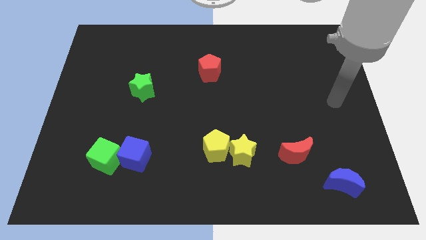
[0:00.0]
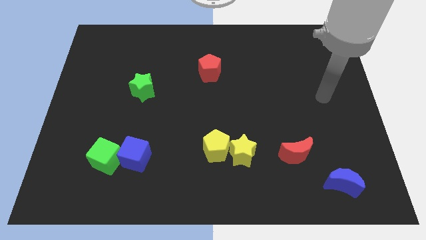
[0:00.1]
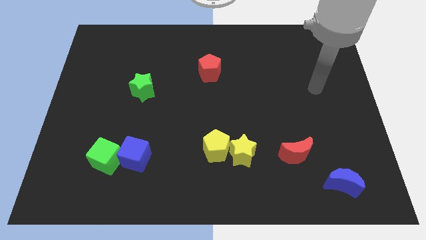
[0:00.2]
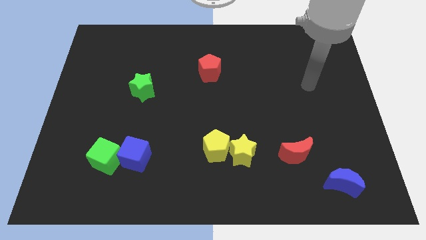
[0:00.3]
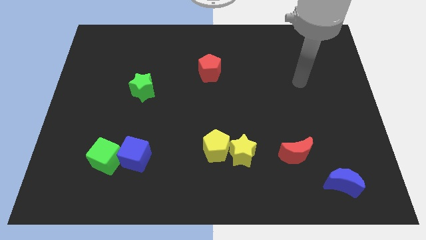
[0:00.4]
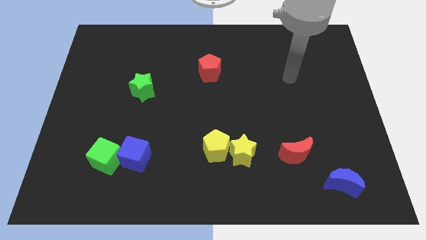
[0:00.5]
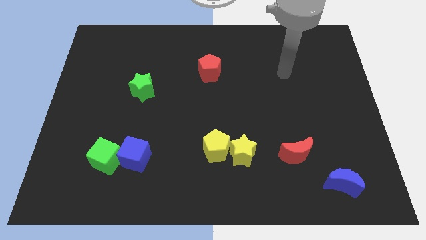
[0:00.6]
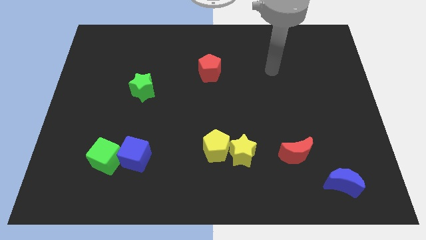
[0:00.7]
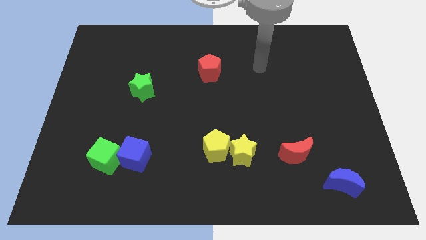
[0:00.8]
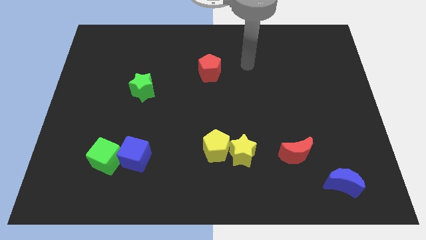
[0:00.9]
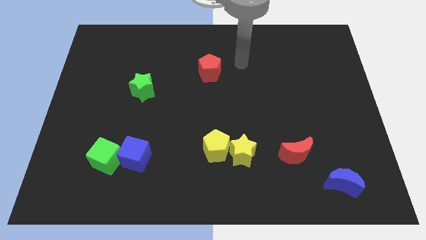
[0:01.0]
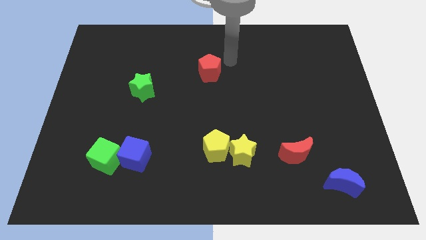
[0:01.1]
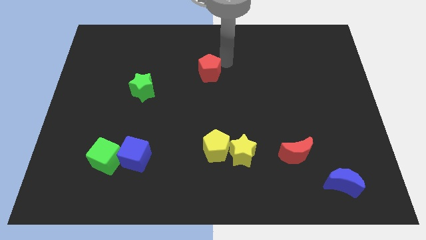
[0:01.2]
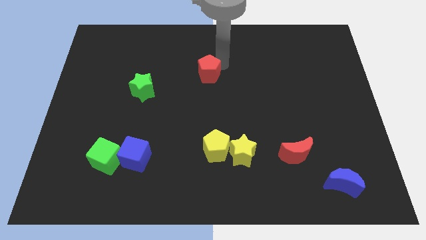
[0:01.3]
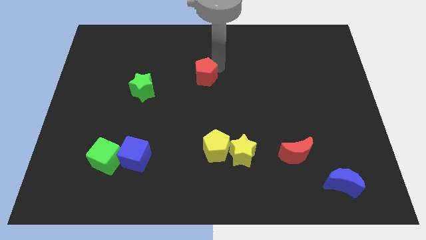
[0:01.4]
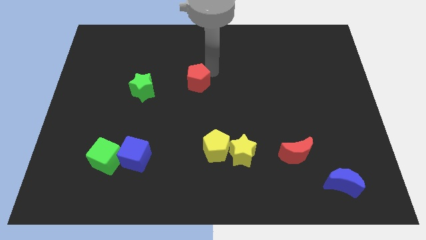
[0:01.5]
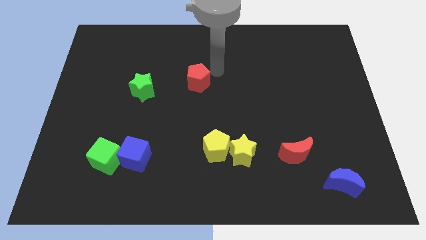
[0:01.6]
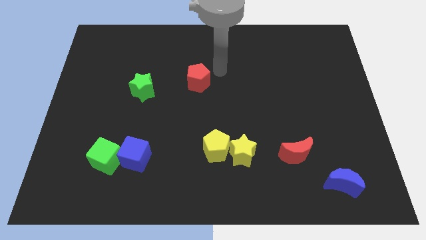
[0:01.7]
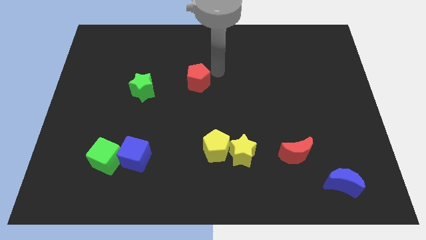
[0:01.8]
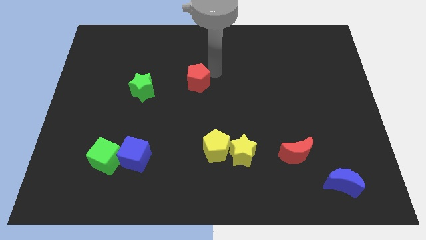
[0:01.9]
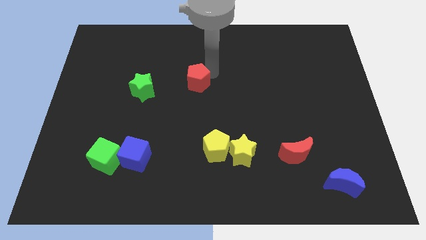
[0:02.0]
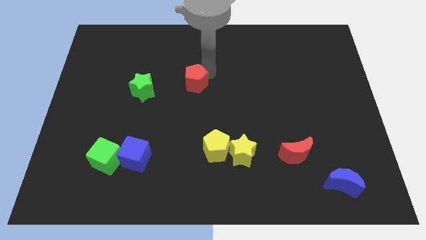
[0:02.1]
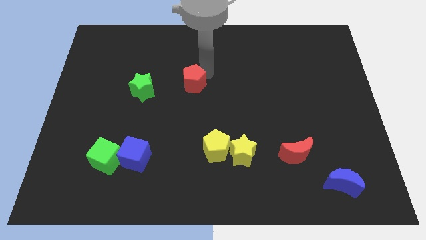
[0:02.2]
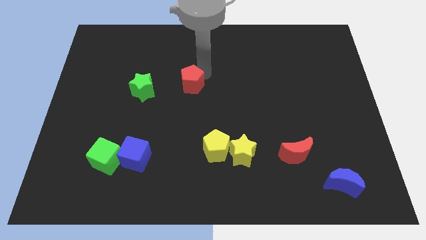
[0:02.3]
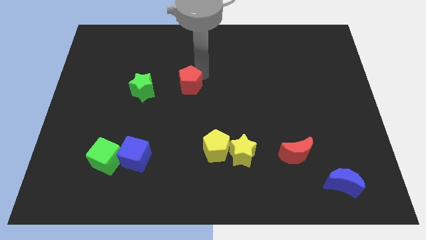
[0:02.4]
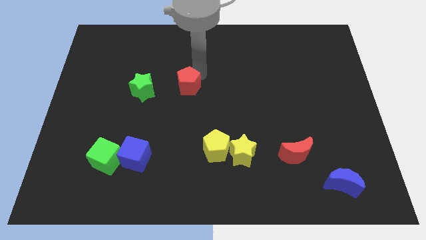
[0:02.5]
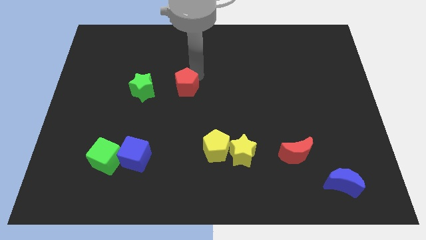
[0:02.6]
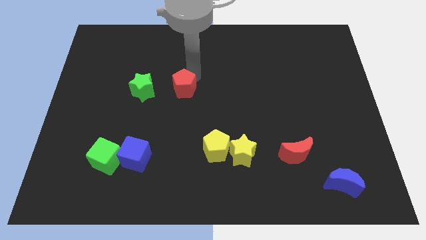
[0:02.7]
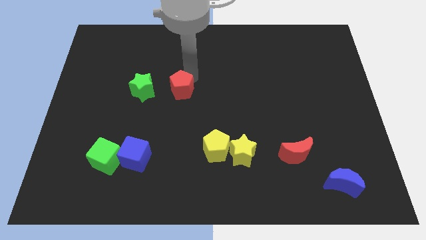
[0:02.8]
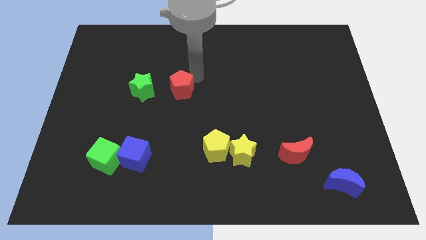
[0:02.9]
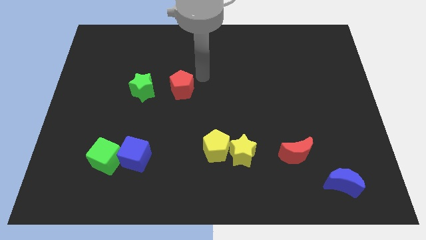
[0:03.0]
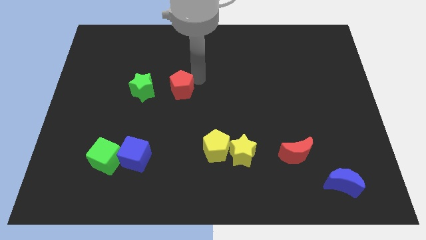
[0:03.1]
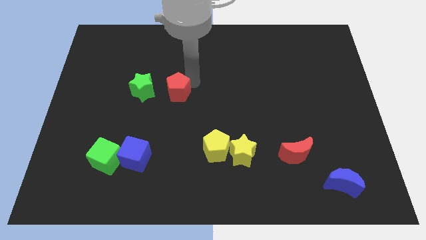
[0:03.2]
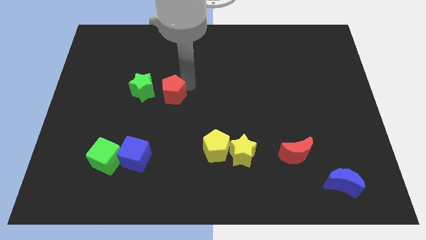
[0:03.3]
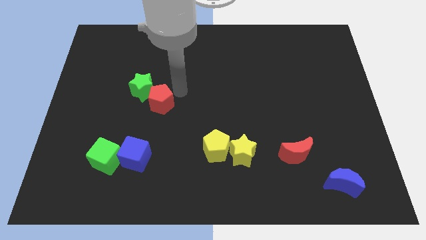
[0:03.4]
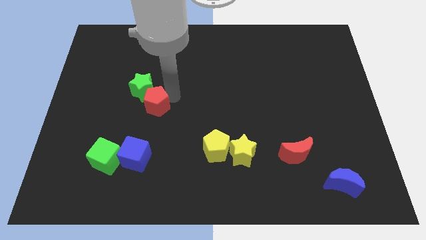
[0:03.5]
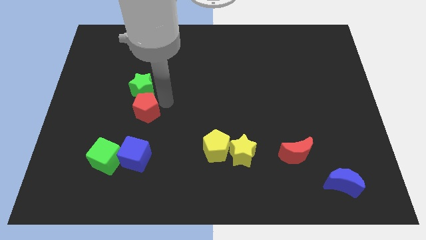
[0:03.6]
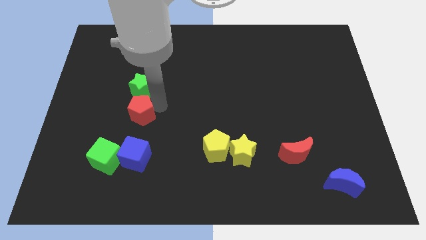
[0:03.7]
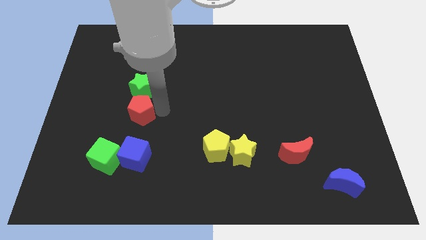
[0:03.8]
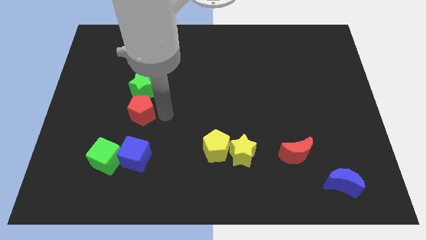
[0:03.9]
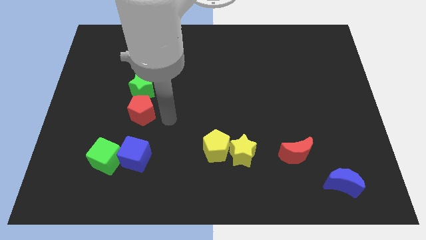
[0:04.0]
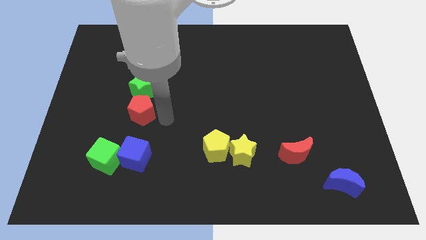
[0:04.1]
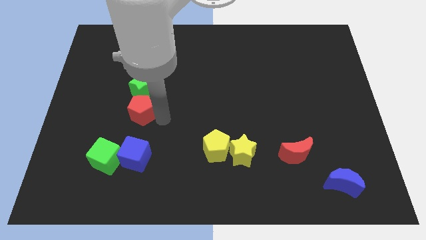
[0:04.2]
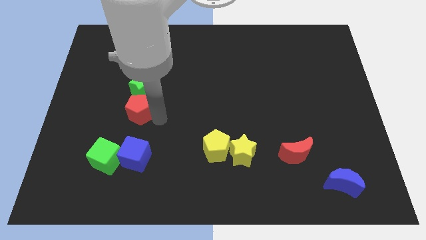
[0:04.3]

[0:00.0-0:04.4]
move the red pentagon to the bottom left side of the green star

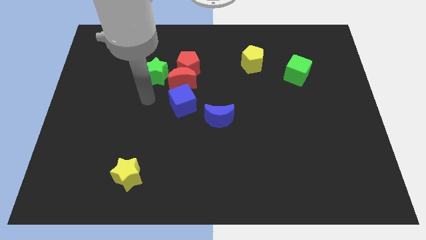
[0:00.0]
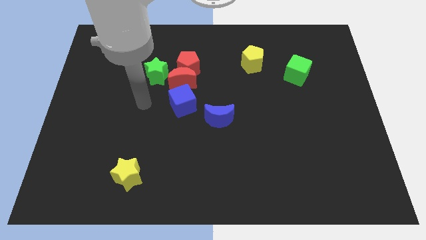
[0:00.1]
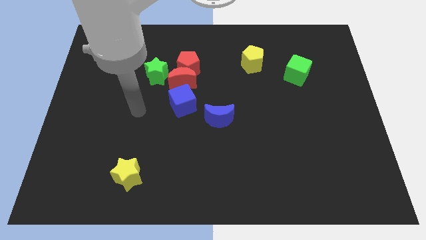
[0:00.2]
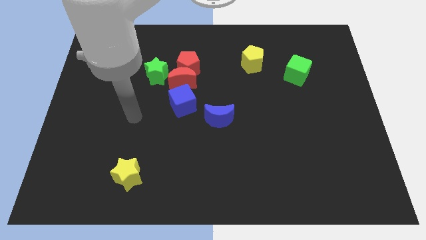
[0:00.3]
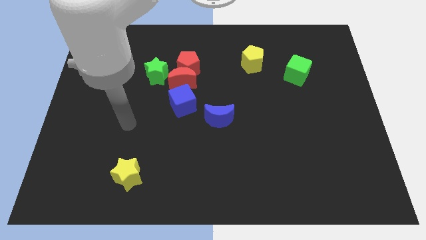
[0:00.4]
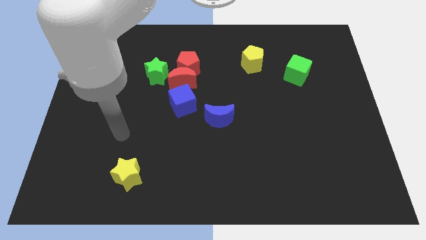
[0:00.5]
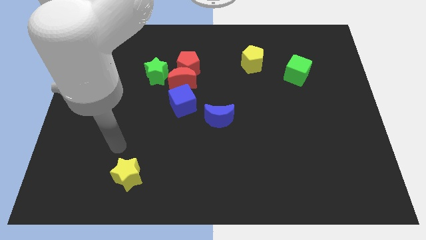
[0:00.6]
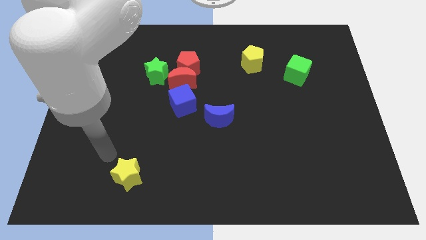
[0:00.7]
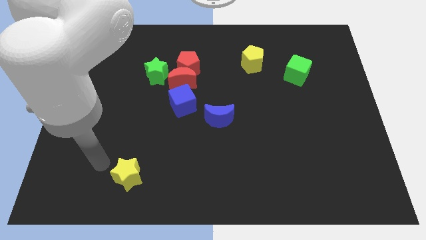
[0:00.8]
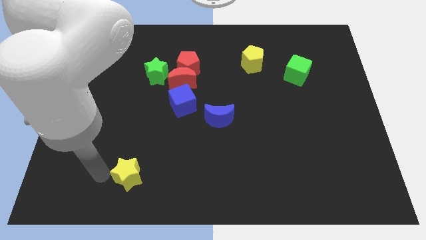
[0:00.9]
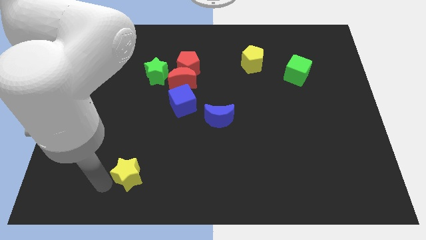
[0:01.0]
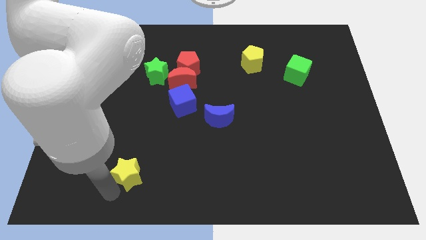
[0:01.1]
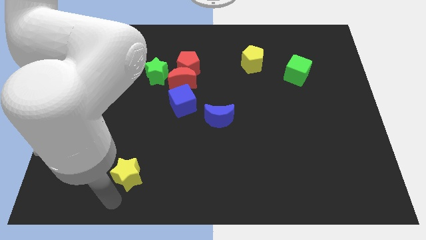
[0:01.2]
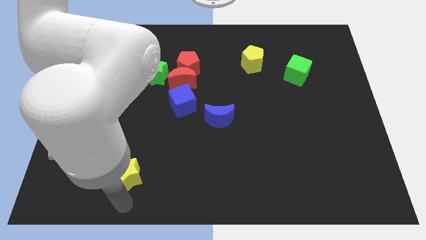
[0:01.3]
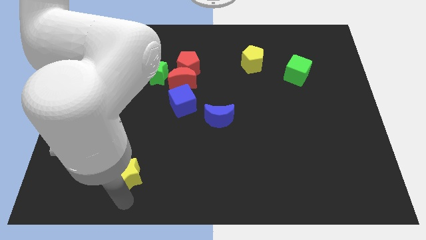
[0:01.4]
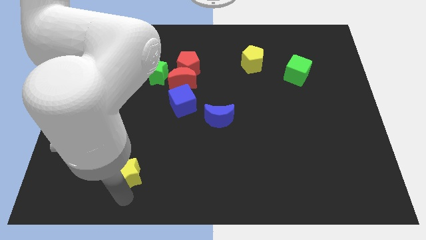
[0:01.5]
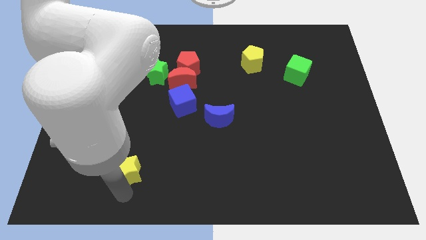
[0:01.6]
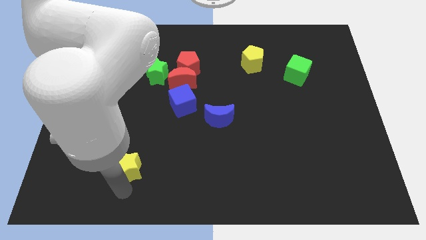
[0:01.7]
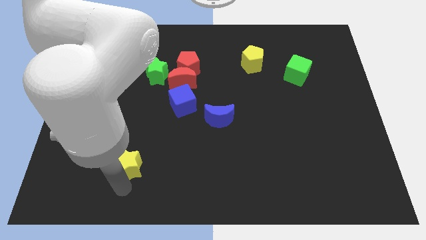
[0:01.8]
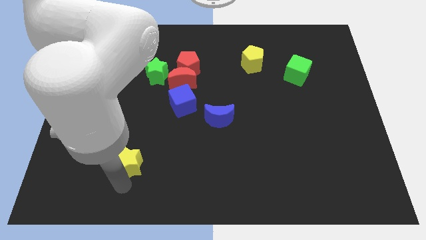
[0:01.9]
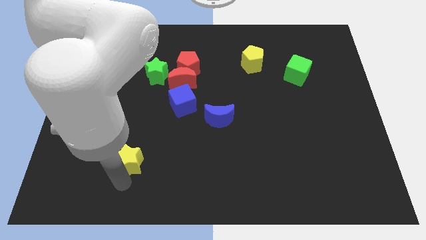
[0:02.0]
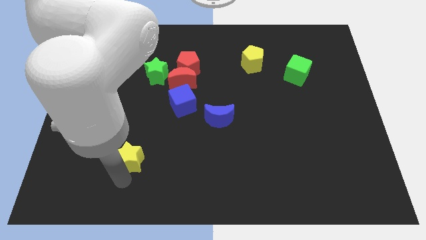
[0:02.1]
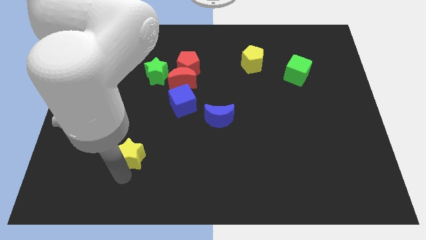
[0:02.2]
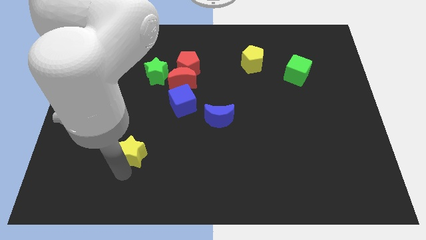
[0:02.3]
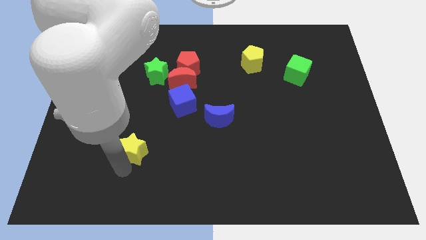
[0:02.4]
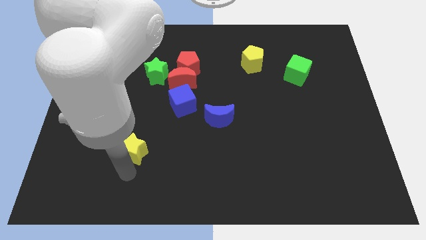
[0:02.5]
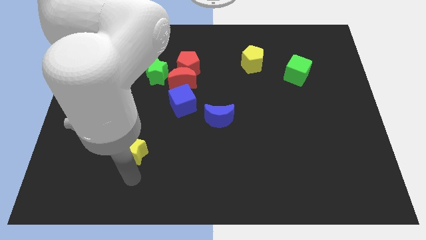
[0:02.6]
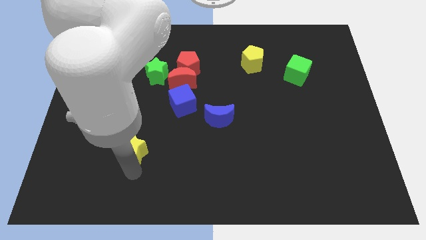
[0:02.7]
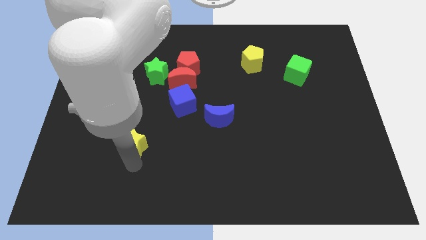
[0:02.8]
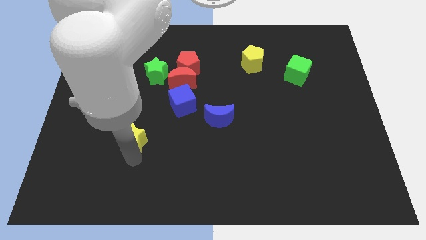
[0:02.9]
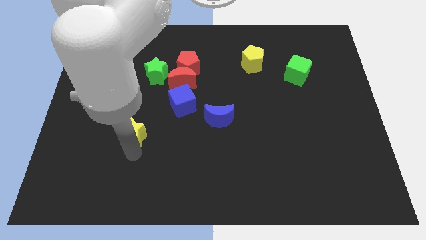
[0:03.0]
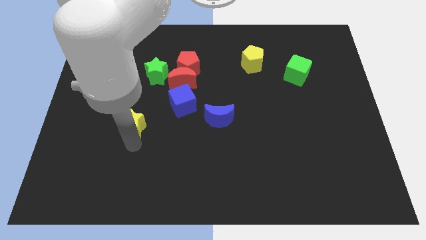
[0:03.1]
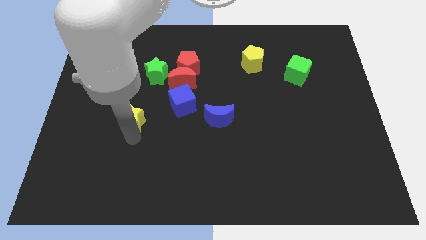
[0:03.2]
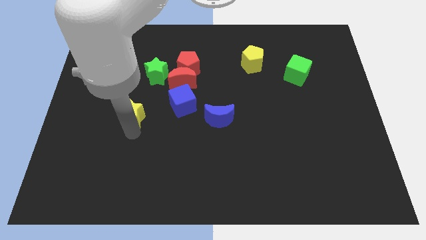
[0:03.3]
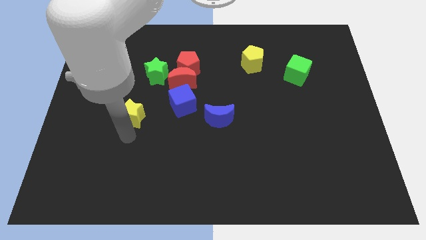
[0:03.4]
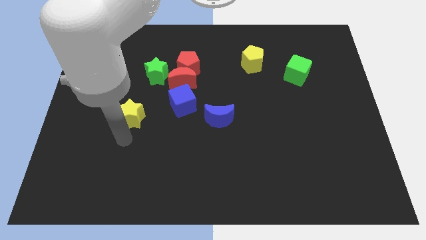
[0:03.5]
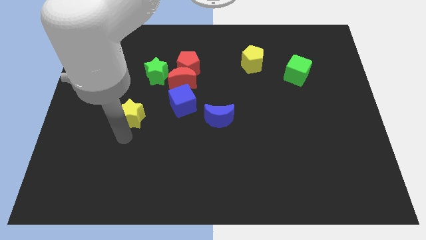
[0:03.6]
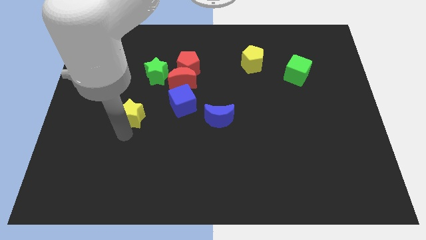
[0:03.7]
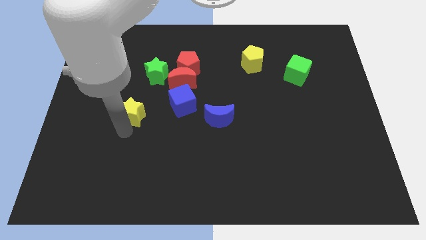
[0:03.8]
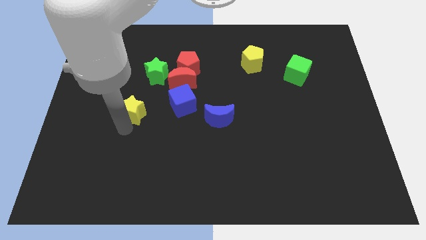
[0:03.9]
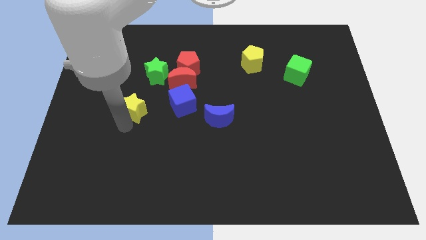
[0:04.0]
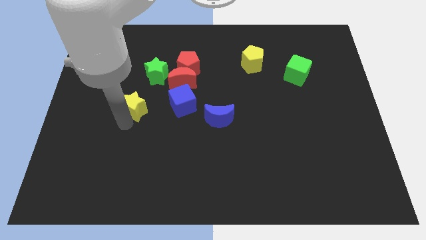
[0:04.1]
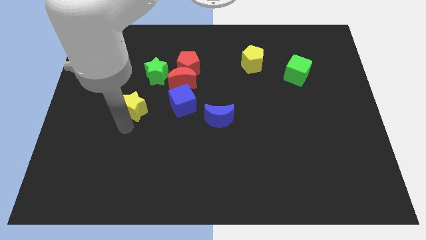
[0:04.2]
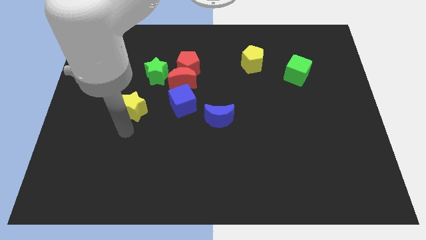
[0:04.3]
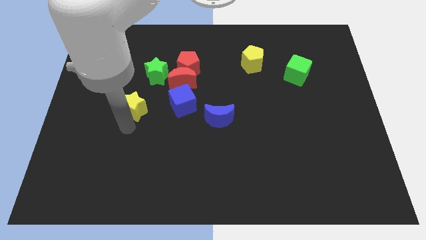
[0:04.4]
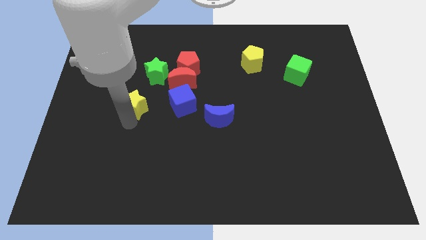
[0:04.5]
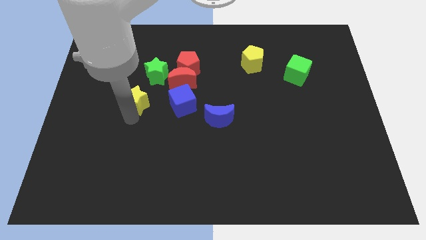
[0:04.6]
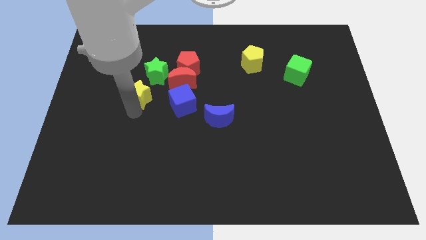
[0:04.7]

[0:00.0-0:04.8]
put the yellow star left of the red moon
